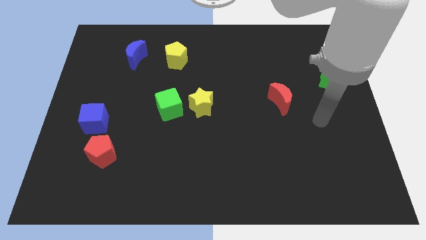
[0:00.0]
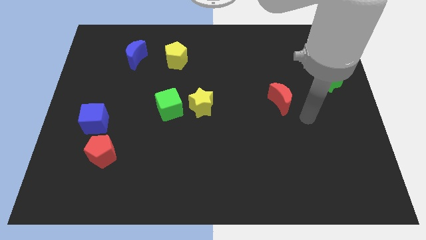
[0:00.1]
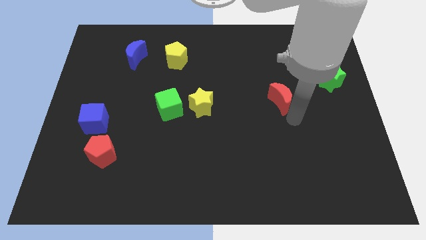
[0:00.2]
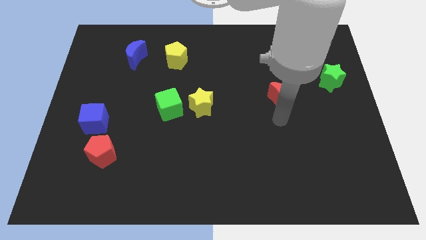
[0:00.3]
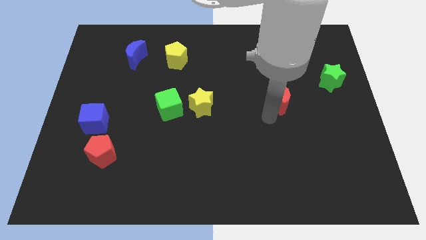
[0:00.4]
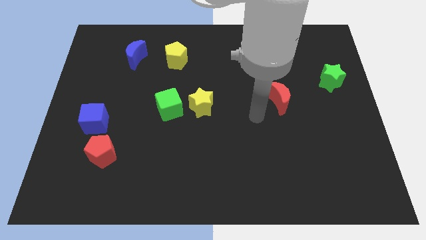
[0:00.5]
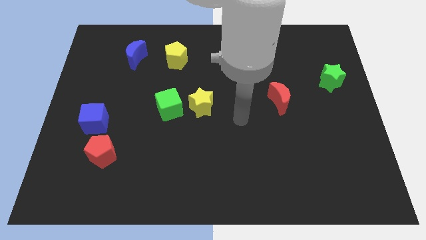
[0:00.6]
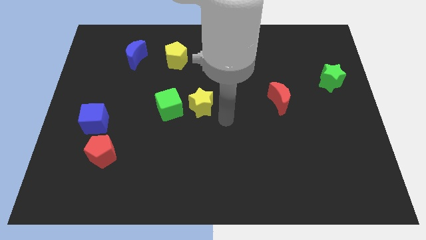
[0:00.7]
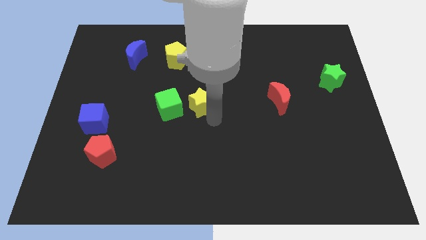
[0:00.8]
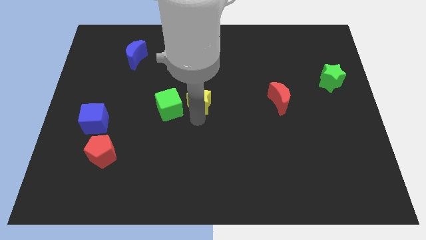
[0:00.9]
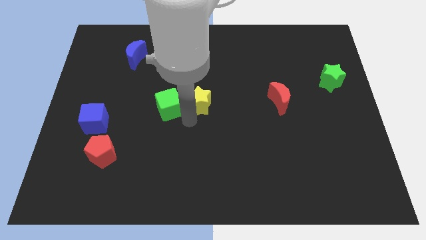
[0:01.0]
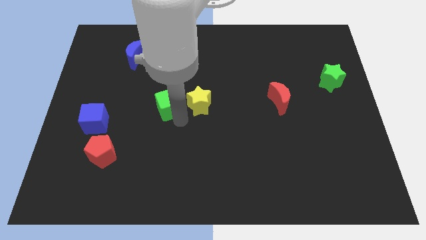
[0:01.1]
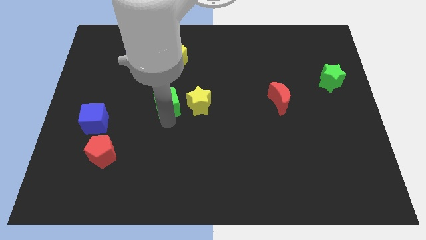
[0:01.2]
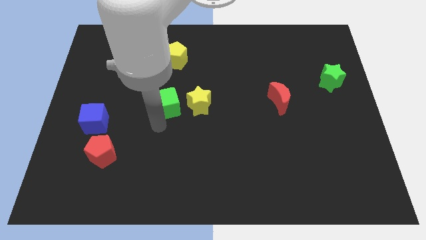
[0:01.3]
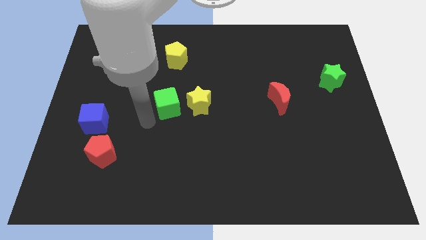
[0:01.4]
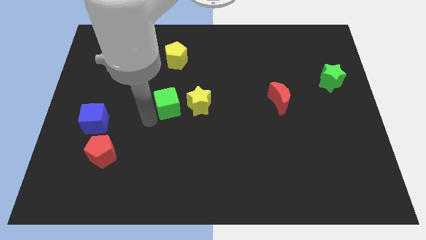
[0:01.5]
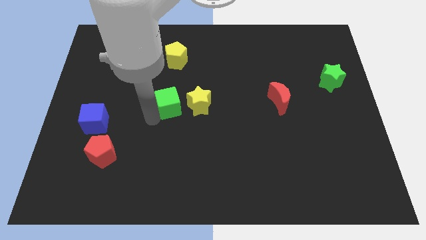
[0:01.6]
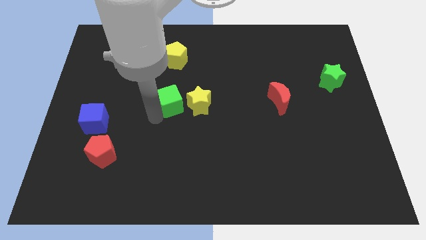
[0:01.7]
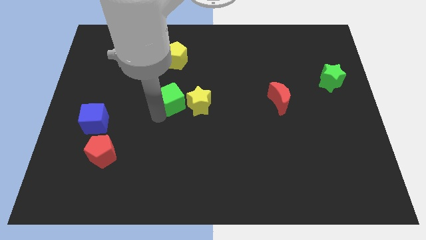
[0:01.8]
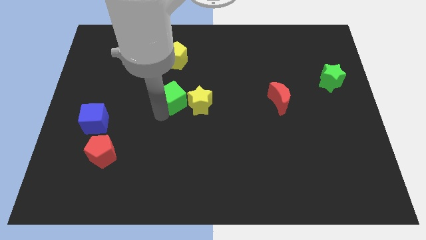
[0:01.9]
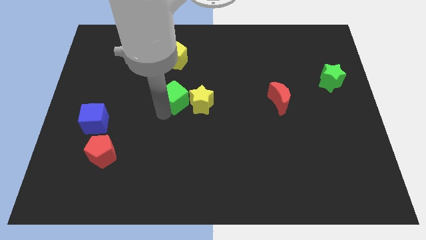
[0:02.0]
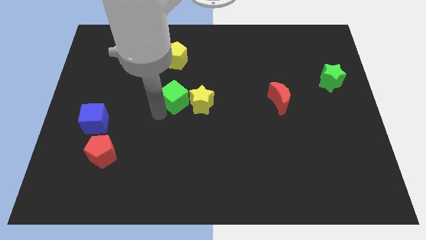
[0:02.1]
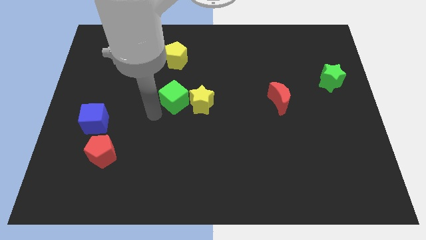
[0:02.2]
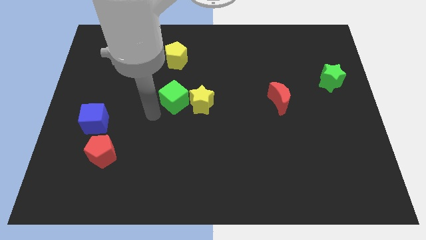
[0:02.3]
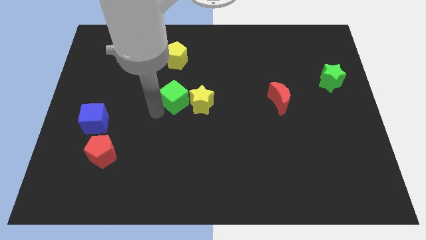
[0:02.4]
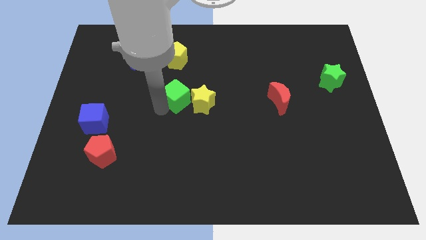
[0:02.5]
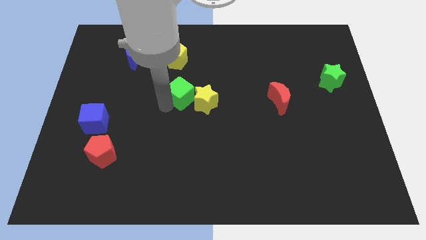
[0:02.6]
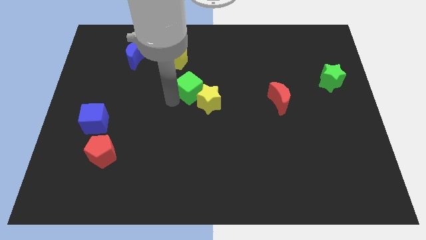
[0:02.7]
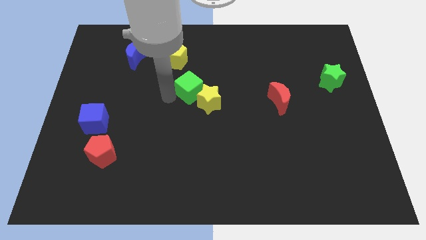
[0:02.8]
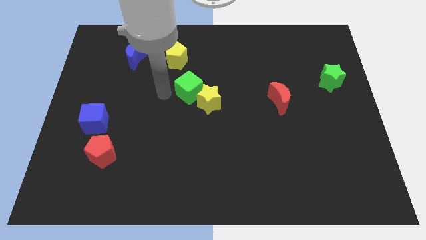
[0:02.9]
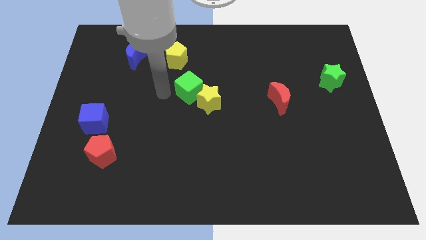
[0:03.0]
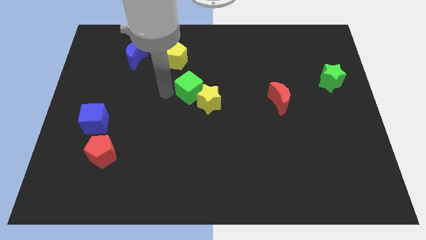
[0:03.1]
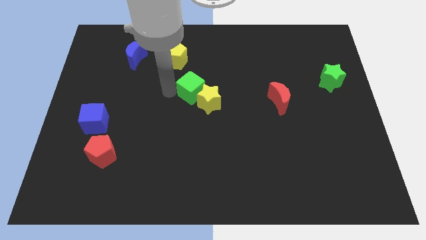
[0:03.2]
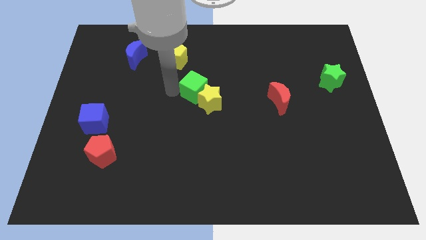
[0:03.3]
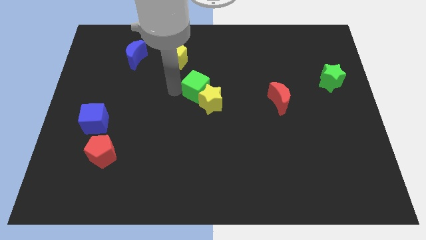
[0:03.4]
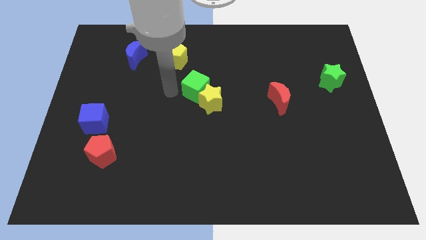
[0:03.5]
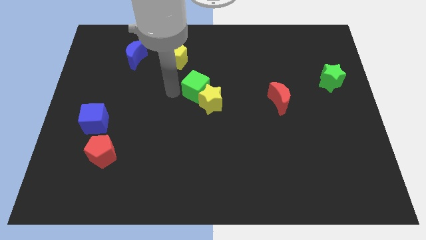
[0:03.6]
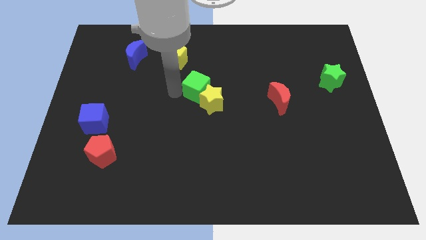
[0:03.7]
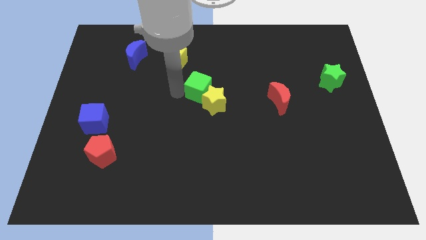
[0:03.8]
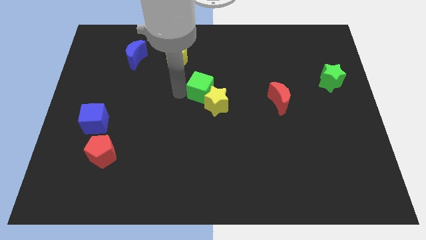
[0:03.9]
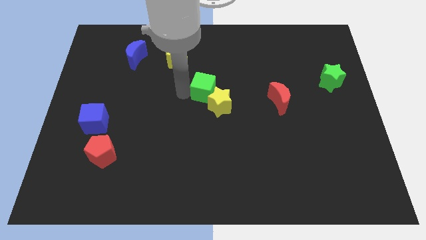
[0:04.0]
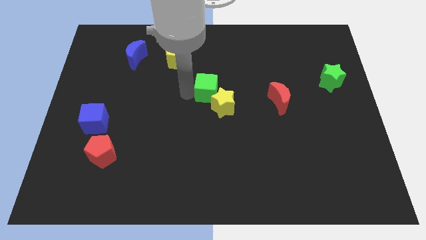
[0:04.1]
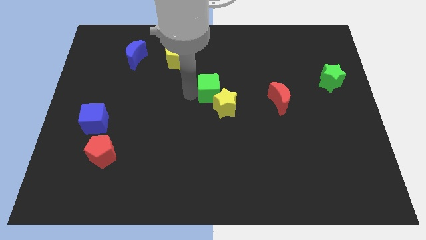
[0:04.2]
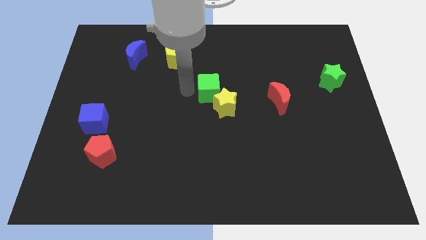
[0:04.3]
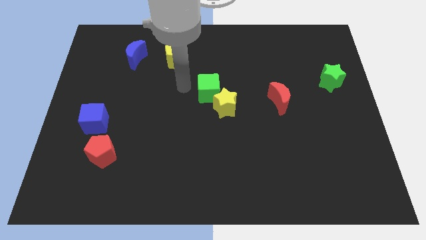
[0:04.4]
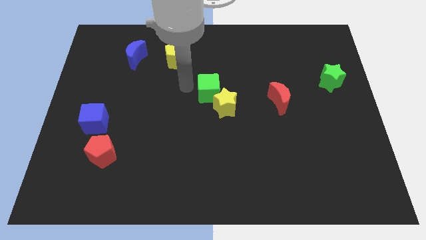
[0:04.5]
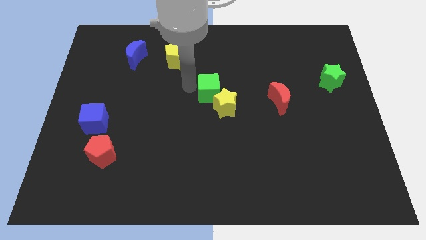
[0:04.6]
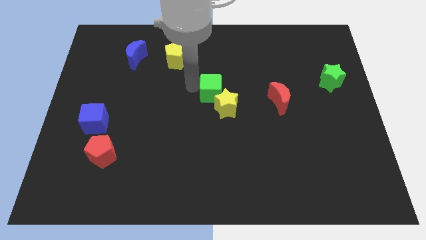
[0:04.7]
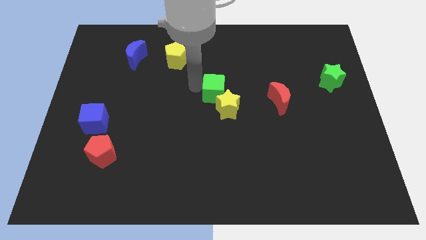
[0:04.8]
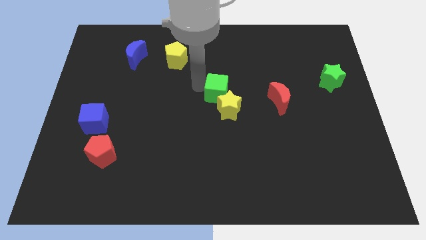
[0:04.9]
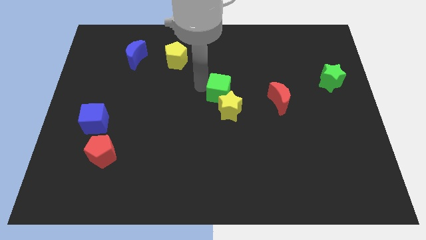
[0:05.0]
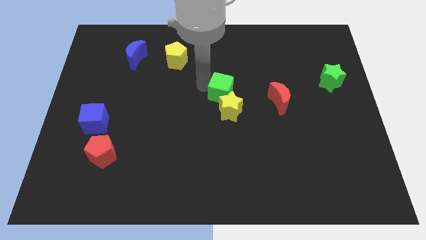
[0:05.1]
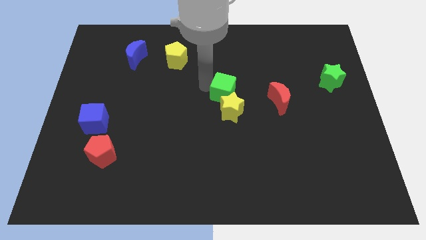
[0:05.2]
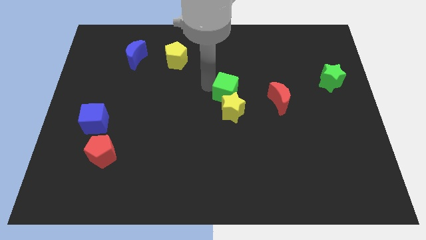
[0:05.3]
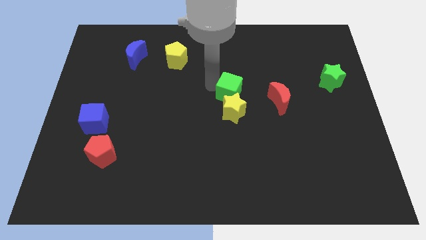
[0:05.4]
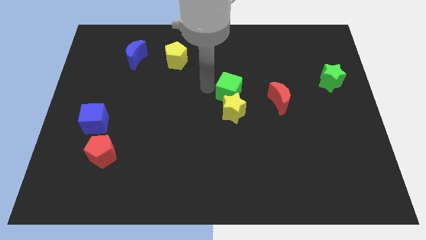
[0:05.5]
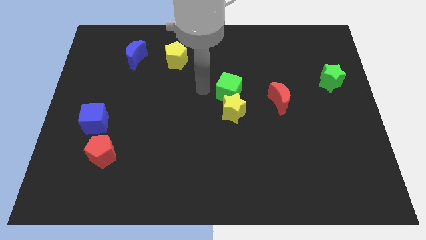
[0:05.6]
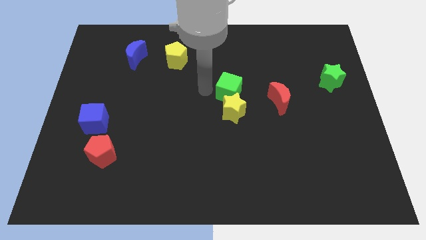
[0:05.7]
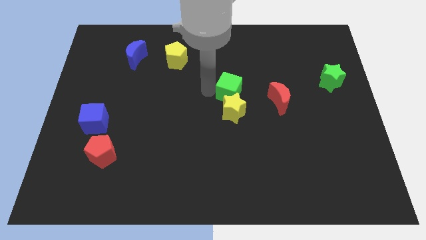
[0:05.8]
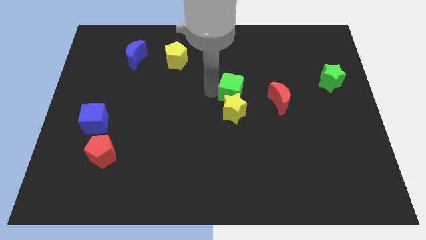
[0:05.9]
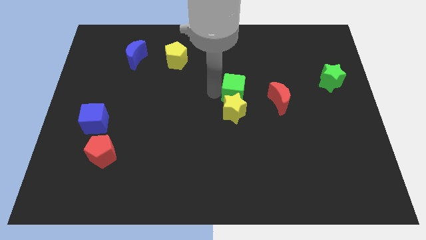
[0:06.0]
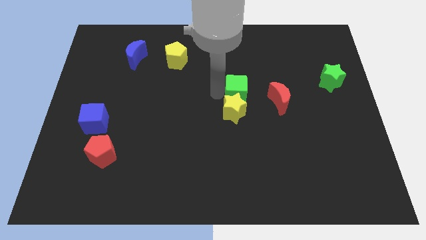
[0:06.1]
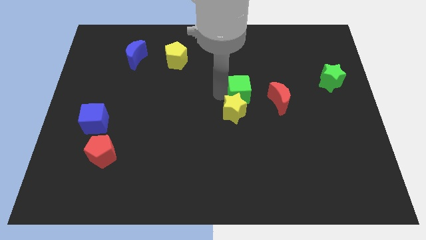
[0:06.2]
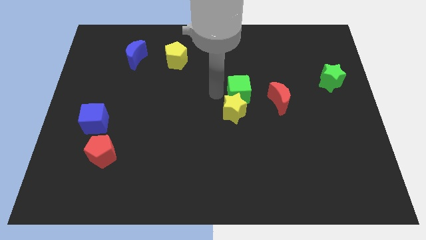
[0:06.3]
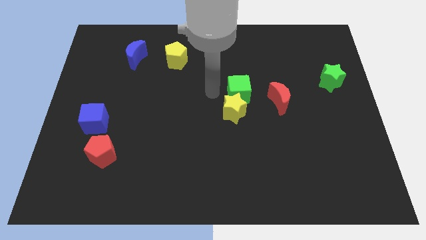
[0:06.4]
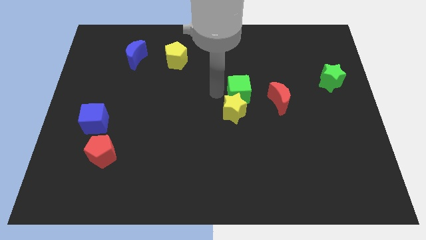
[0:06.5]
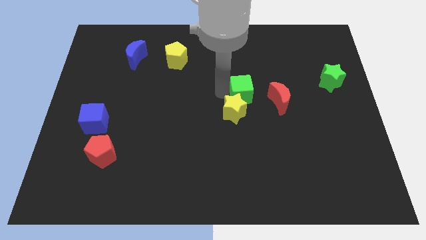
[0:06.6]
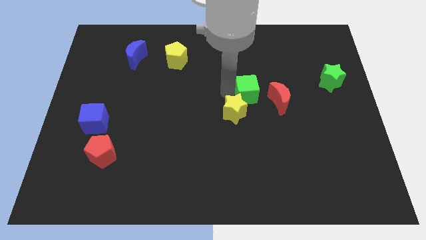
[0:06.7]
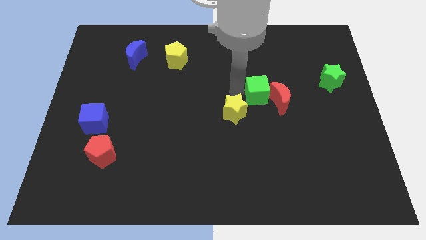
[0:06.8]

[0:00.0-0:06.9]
put the green cube close to the red moon
